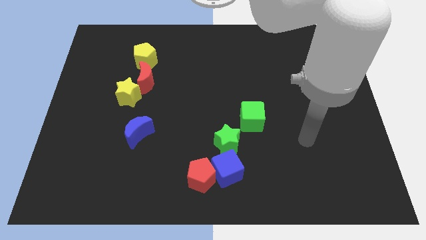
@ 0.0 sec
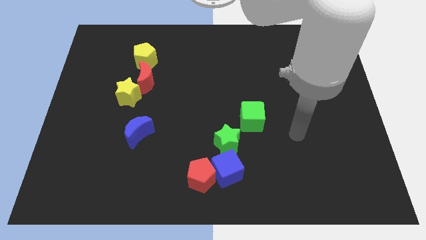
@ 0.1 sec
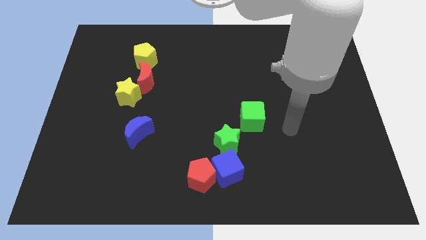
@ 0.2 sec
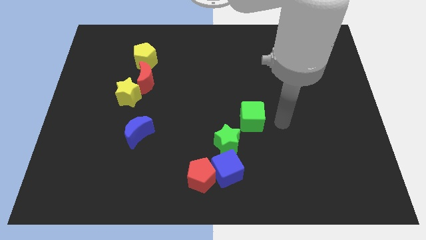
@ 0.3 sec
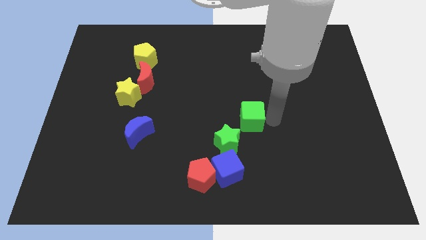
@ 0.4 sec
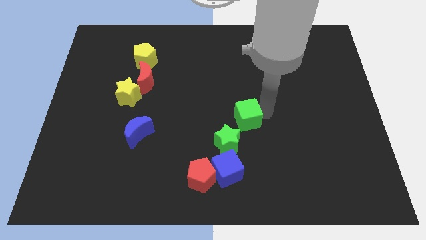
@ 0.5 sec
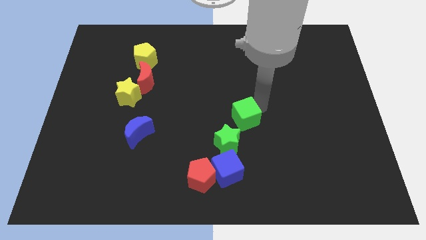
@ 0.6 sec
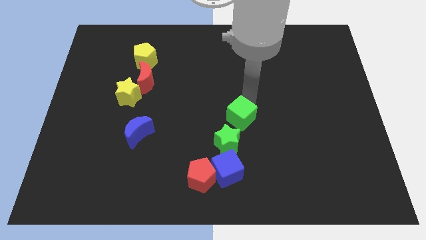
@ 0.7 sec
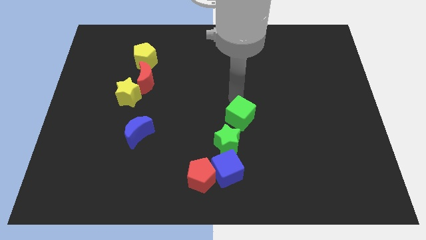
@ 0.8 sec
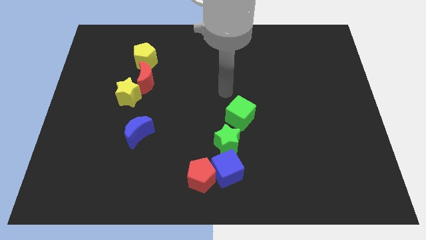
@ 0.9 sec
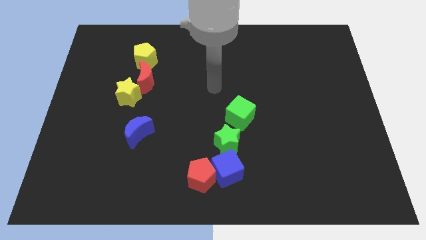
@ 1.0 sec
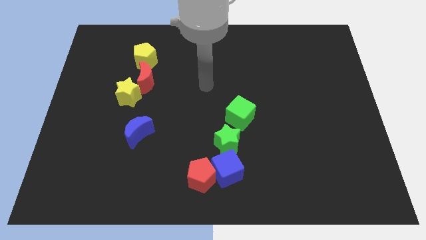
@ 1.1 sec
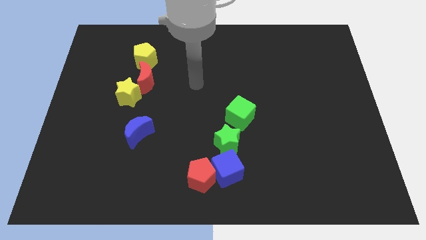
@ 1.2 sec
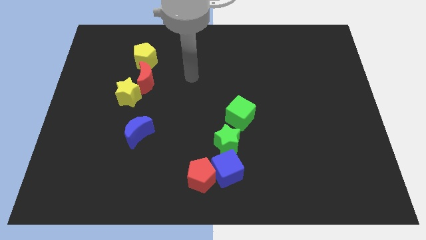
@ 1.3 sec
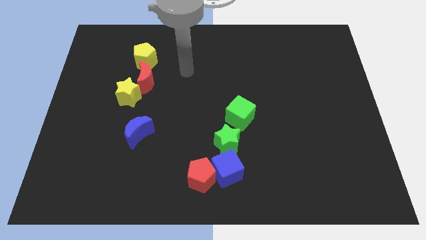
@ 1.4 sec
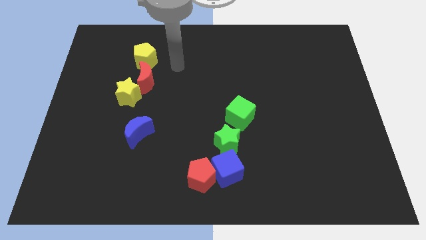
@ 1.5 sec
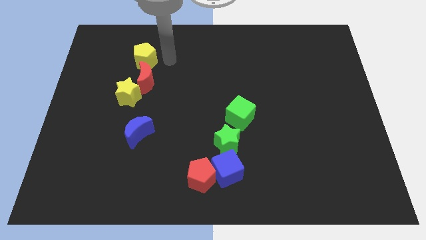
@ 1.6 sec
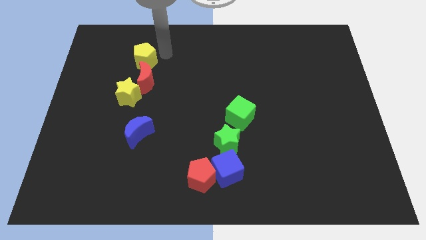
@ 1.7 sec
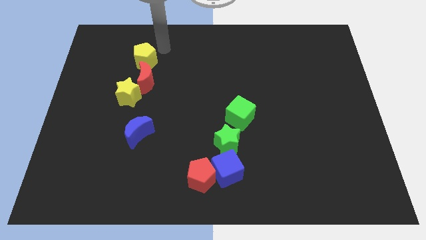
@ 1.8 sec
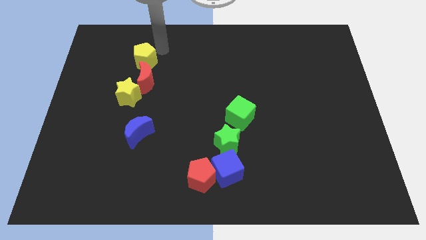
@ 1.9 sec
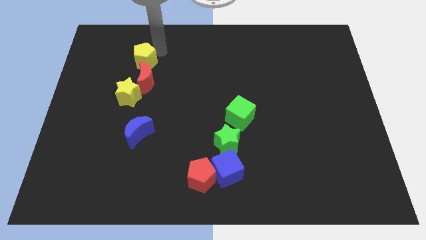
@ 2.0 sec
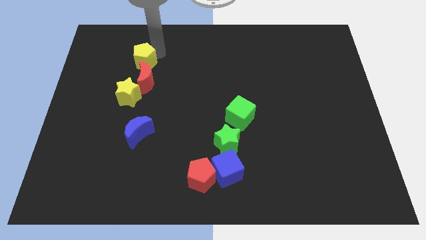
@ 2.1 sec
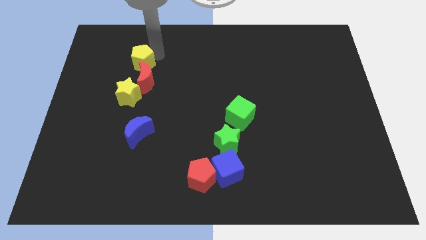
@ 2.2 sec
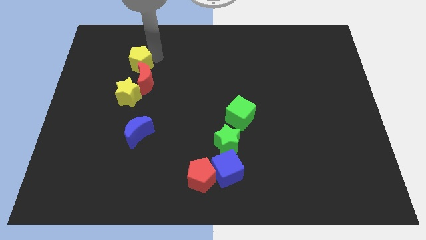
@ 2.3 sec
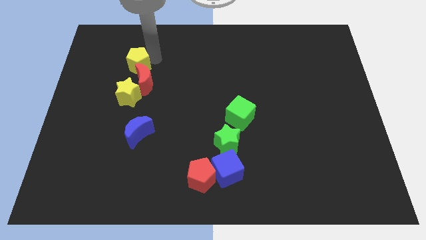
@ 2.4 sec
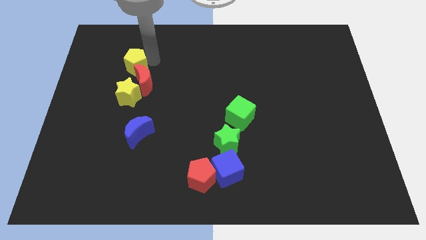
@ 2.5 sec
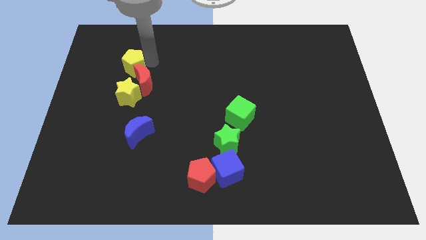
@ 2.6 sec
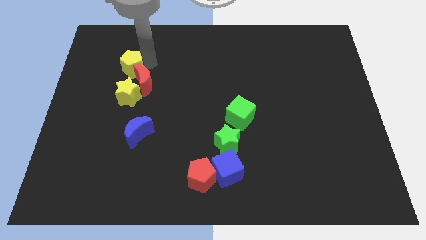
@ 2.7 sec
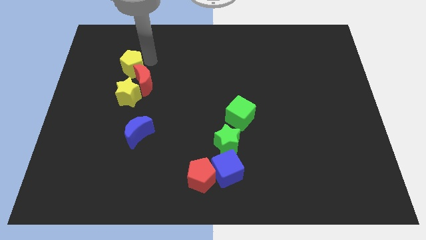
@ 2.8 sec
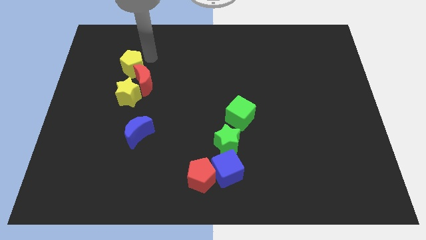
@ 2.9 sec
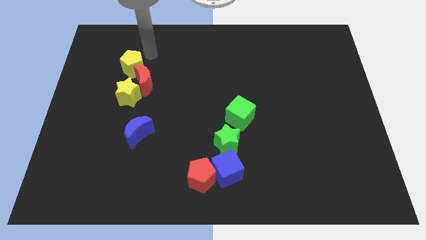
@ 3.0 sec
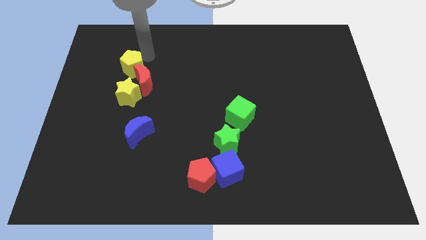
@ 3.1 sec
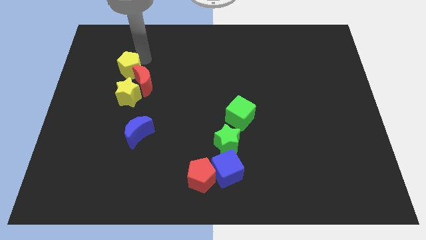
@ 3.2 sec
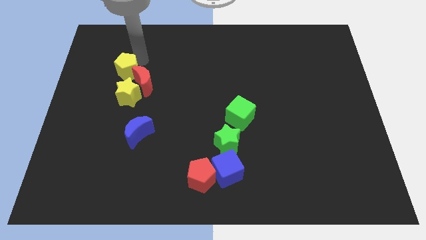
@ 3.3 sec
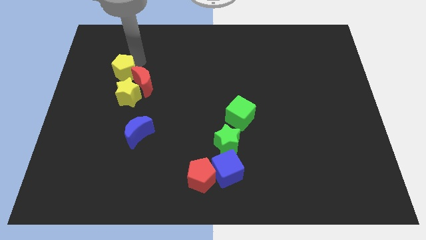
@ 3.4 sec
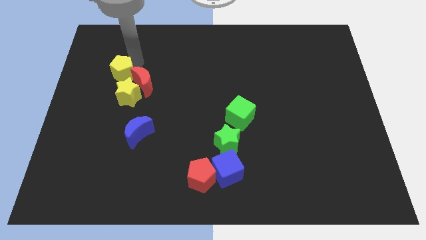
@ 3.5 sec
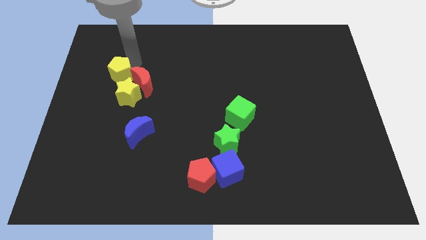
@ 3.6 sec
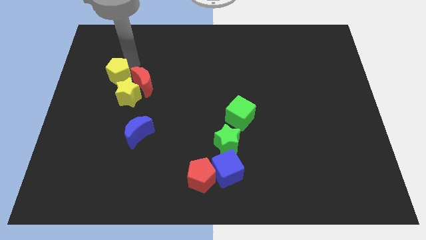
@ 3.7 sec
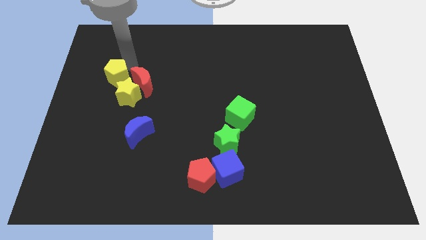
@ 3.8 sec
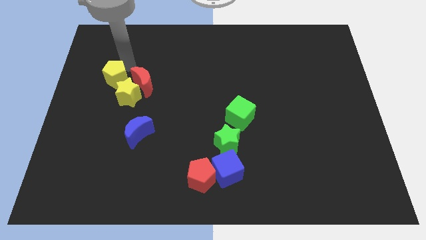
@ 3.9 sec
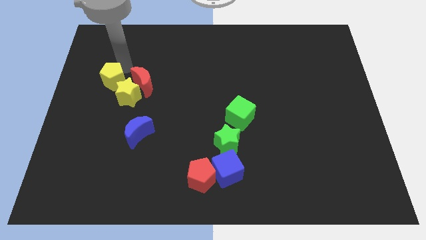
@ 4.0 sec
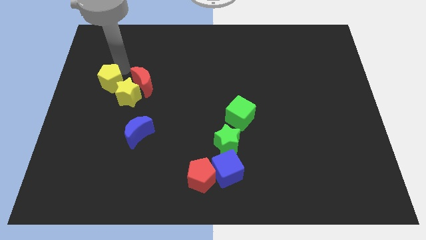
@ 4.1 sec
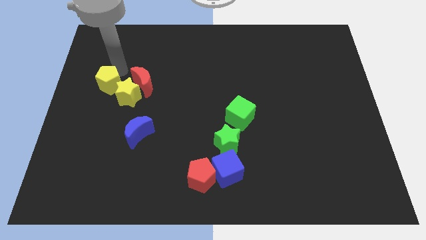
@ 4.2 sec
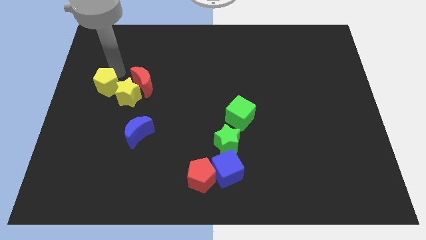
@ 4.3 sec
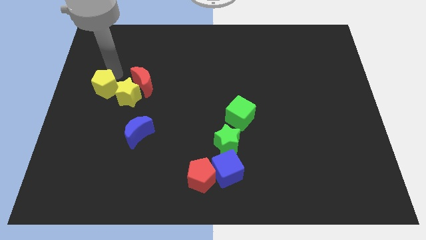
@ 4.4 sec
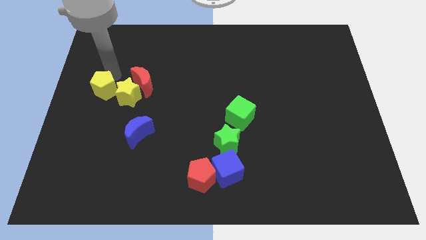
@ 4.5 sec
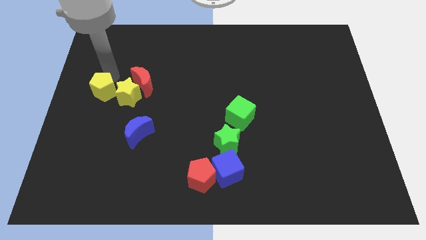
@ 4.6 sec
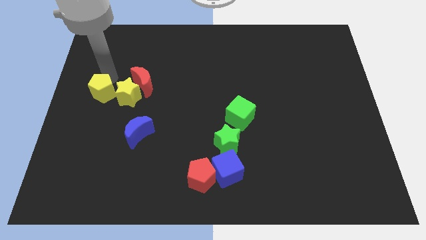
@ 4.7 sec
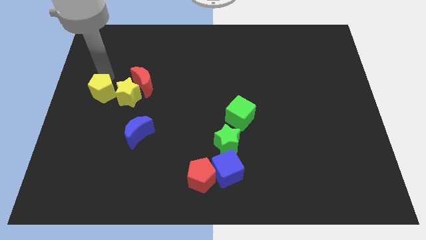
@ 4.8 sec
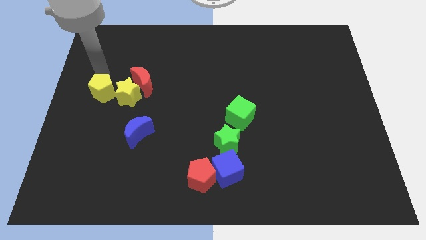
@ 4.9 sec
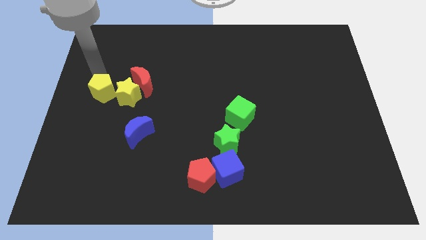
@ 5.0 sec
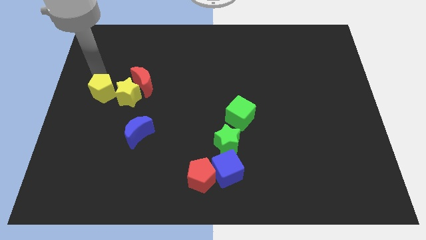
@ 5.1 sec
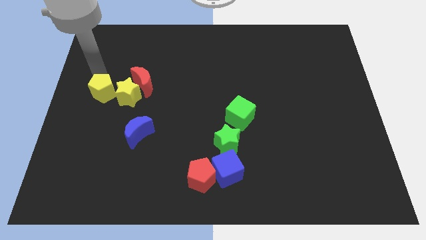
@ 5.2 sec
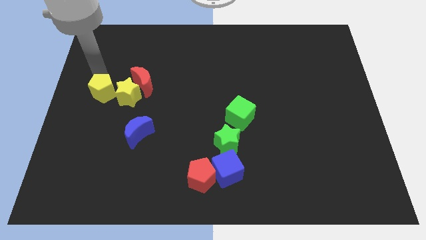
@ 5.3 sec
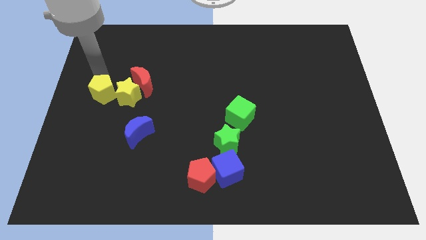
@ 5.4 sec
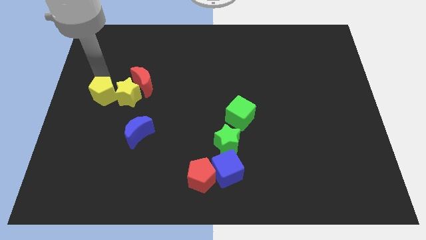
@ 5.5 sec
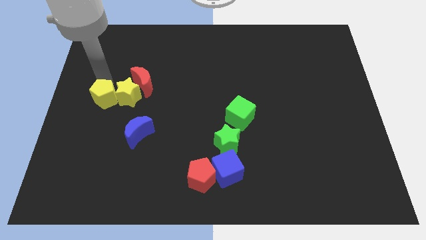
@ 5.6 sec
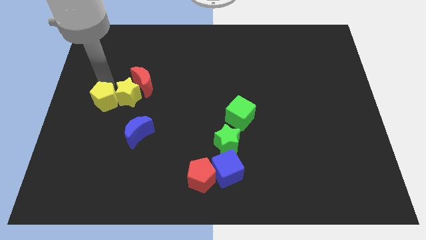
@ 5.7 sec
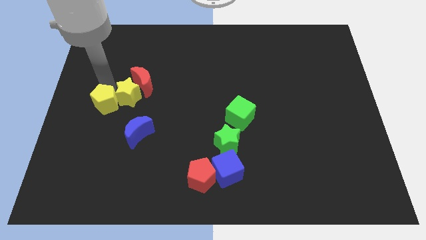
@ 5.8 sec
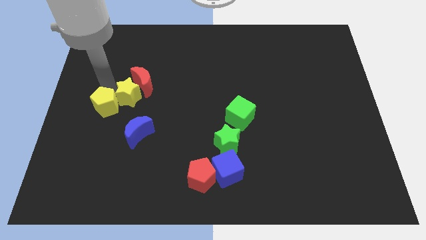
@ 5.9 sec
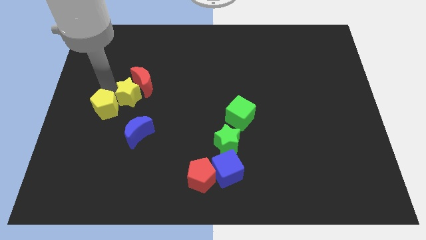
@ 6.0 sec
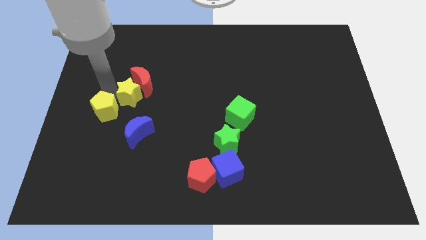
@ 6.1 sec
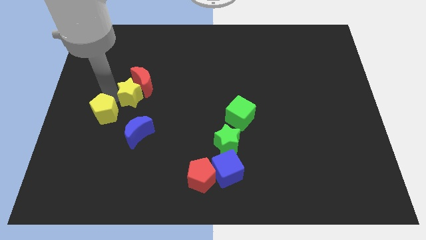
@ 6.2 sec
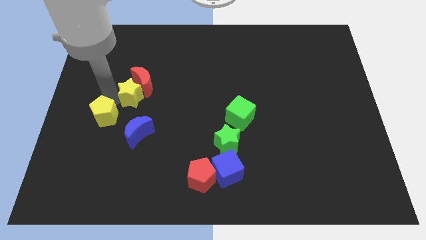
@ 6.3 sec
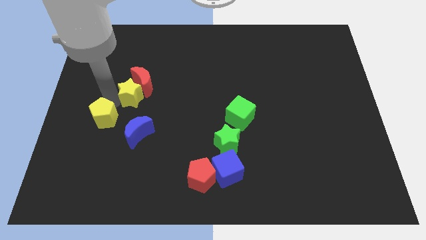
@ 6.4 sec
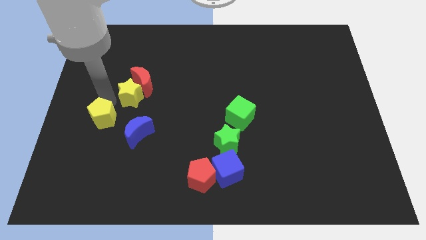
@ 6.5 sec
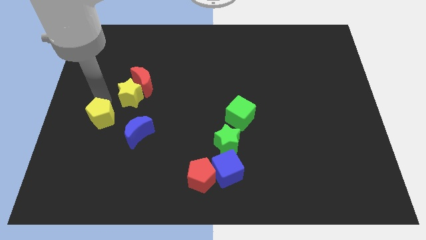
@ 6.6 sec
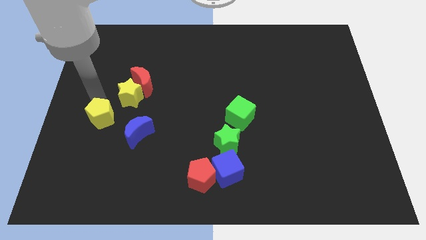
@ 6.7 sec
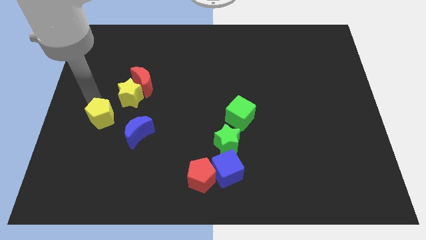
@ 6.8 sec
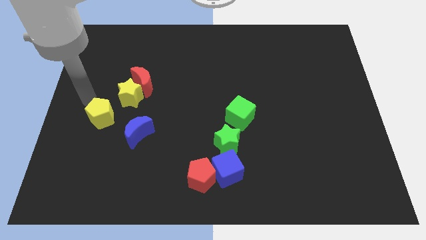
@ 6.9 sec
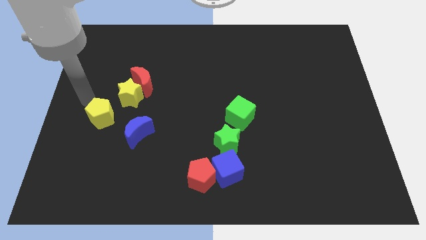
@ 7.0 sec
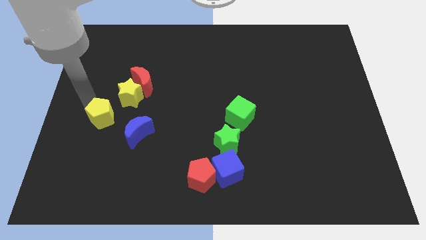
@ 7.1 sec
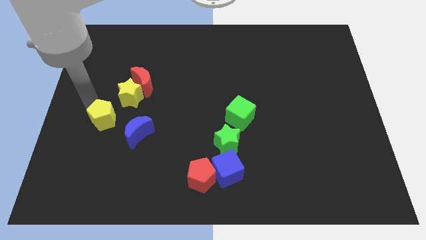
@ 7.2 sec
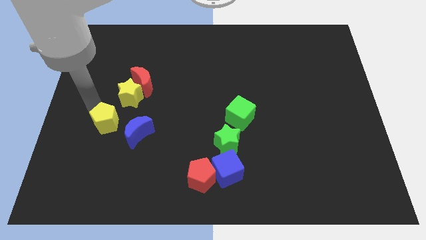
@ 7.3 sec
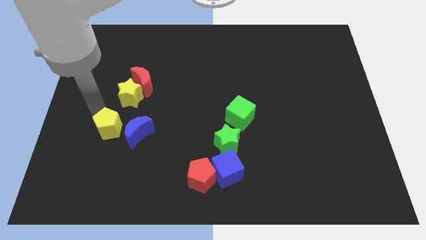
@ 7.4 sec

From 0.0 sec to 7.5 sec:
slide the yellow pentagon down

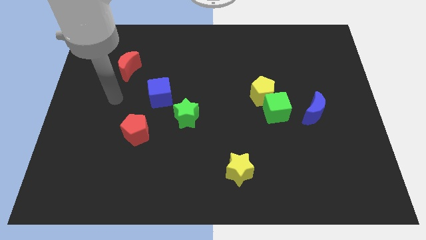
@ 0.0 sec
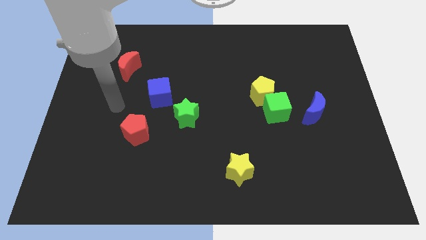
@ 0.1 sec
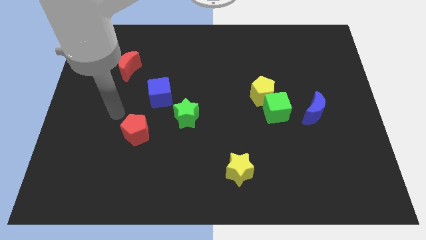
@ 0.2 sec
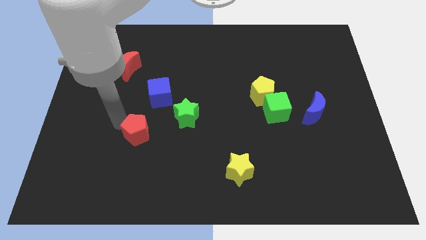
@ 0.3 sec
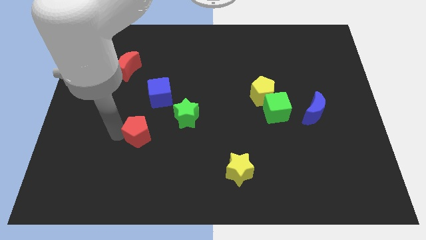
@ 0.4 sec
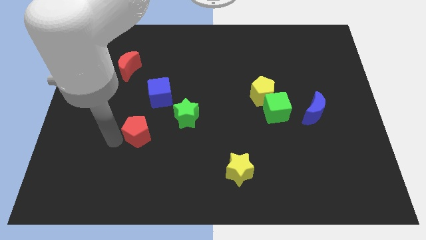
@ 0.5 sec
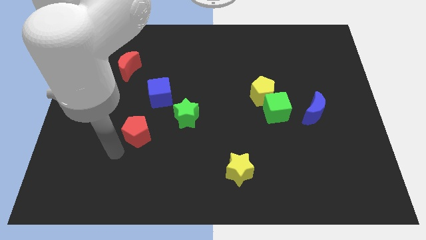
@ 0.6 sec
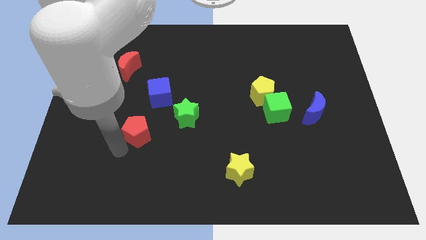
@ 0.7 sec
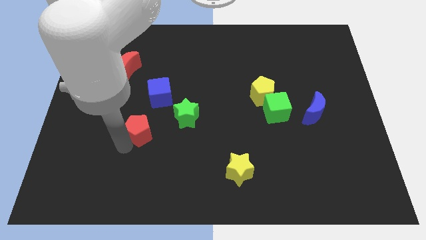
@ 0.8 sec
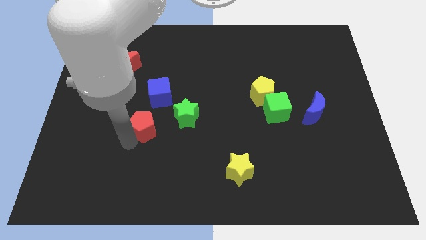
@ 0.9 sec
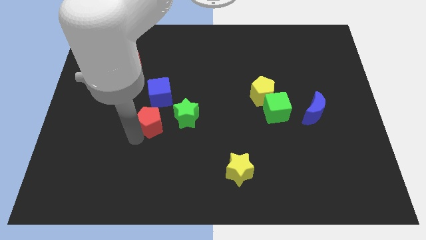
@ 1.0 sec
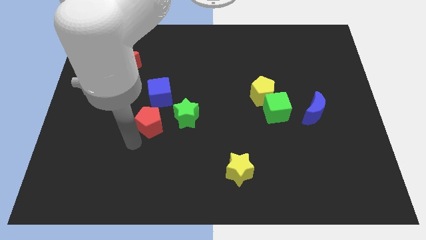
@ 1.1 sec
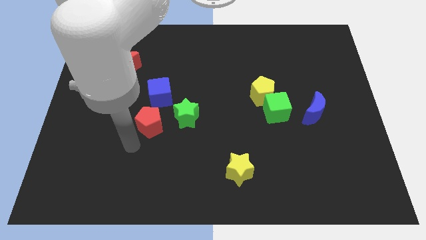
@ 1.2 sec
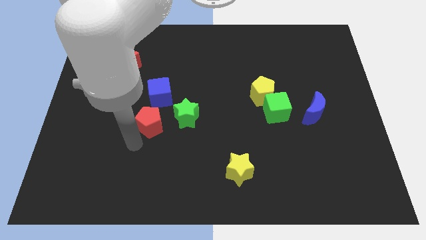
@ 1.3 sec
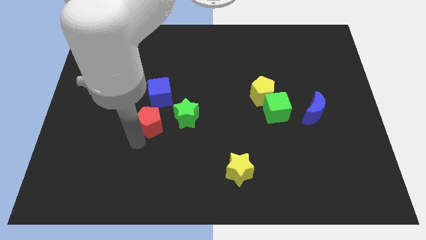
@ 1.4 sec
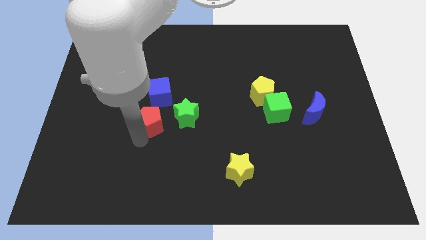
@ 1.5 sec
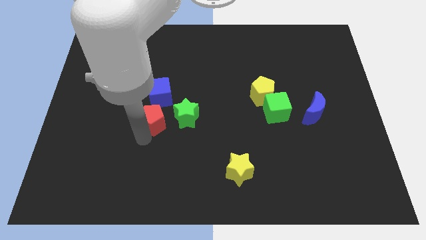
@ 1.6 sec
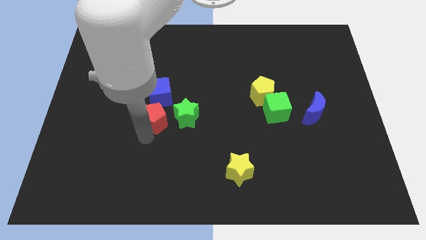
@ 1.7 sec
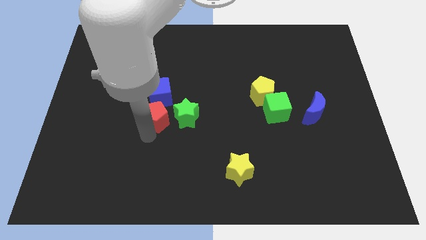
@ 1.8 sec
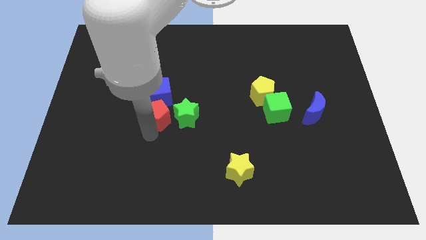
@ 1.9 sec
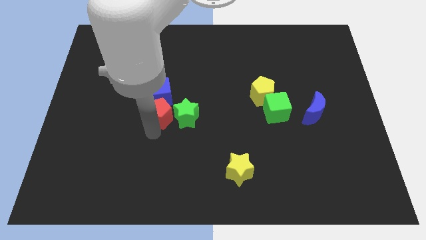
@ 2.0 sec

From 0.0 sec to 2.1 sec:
slightly move the red pentagon upwards and right diagonally
